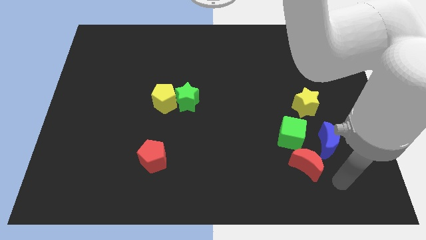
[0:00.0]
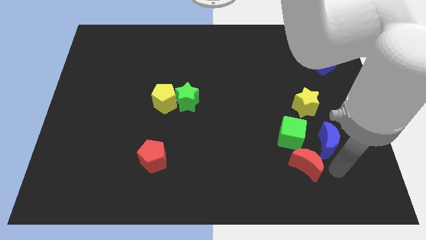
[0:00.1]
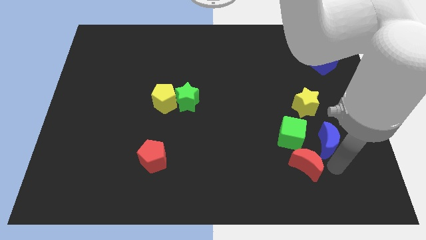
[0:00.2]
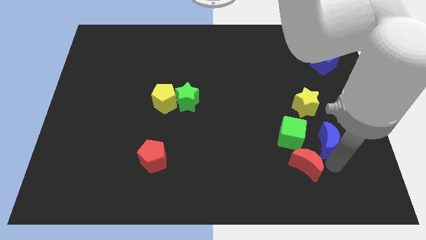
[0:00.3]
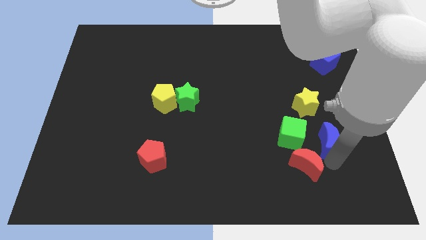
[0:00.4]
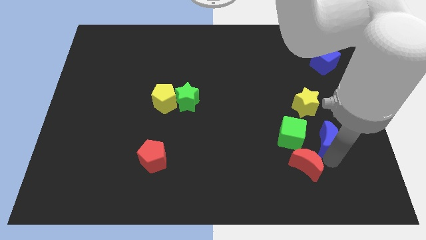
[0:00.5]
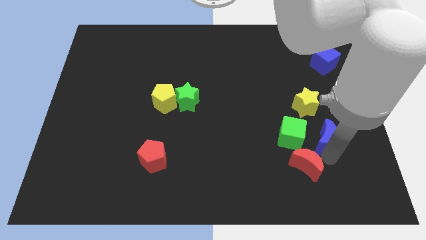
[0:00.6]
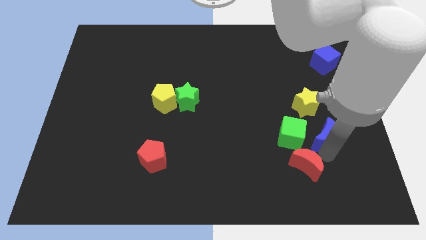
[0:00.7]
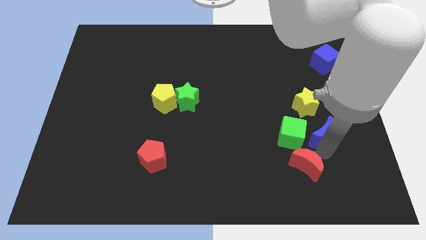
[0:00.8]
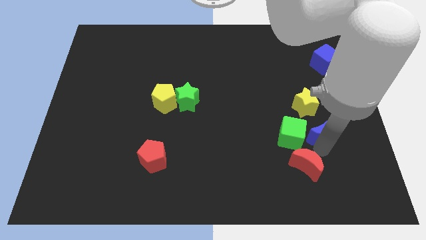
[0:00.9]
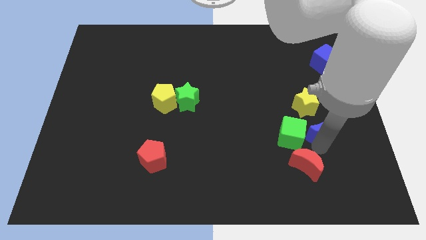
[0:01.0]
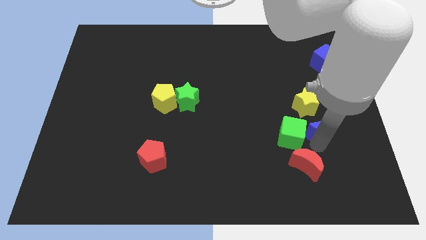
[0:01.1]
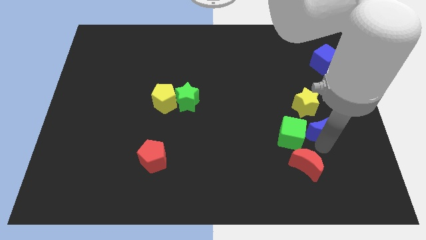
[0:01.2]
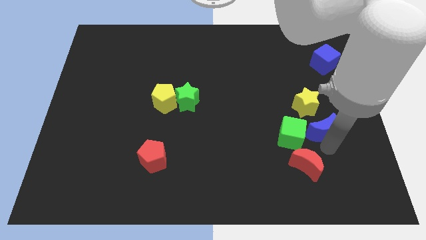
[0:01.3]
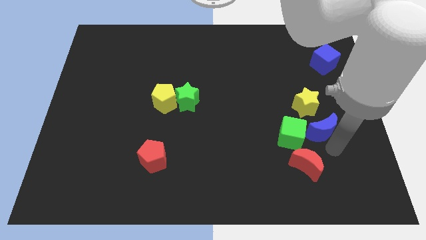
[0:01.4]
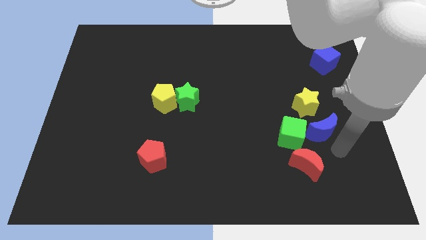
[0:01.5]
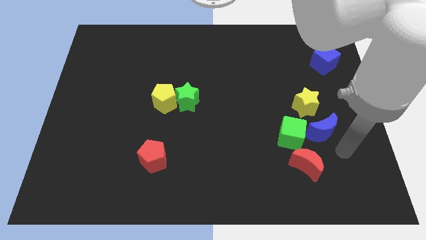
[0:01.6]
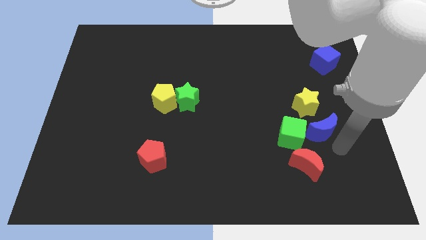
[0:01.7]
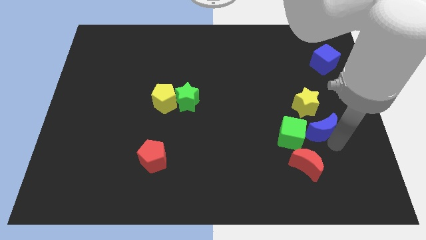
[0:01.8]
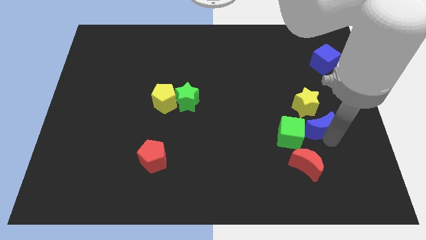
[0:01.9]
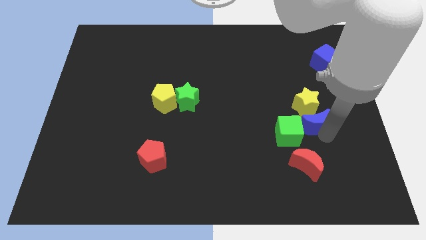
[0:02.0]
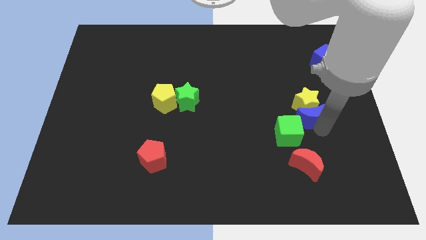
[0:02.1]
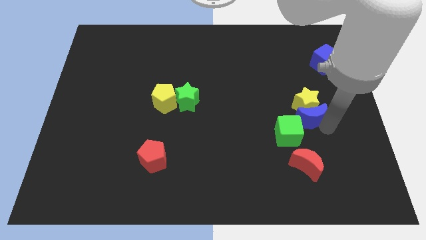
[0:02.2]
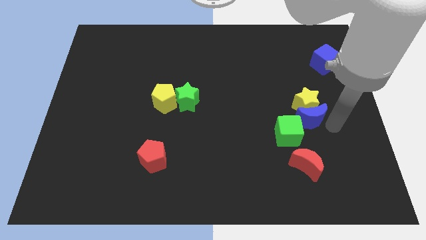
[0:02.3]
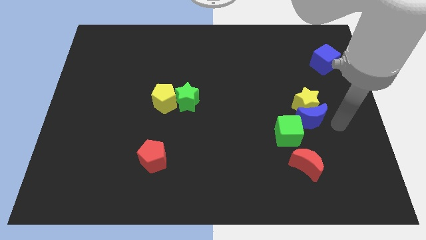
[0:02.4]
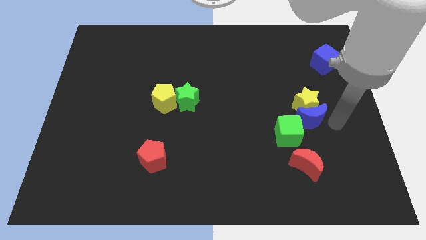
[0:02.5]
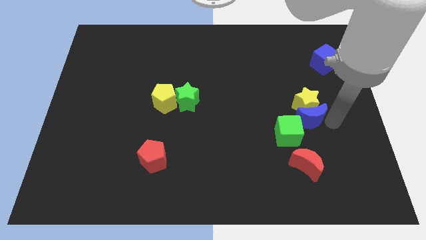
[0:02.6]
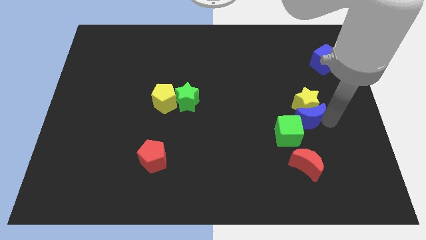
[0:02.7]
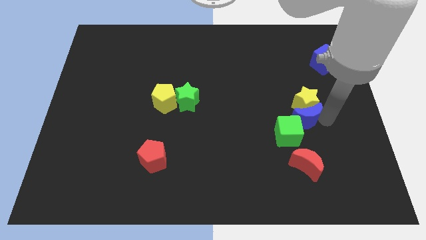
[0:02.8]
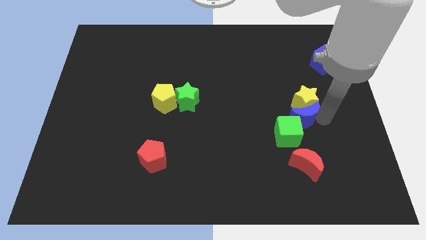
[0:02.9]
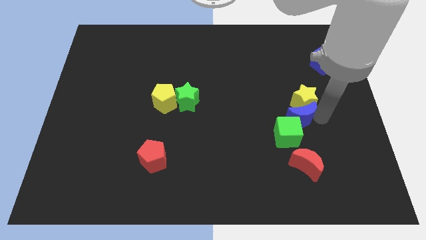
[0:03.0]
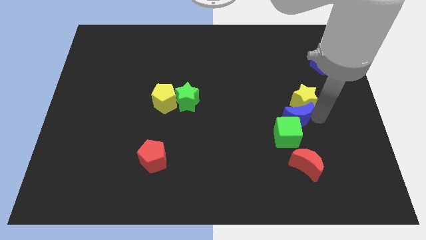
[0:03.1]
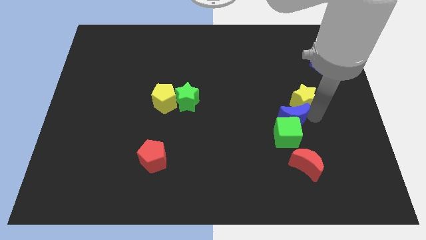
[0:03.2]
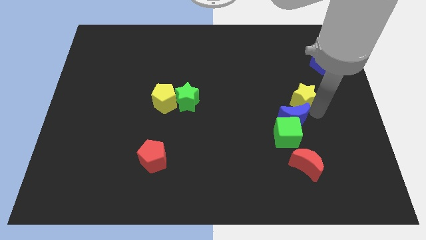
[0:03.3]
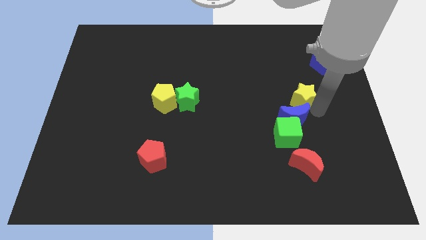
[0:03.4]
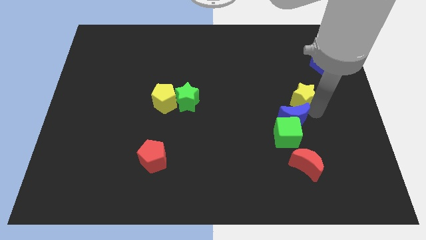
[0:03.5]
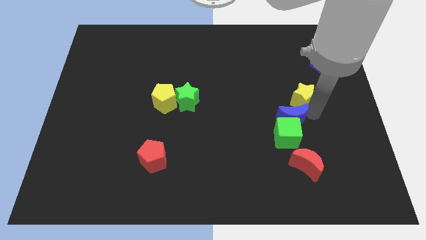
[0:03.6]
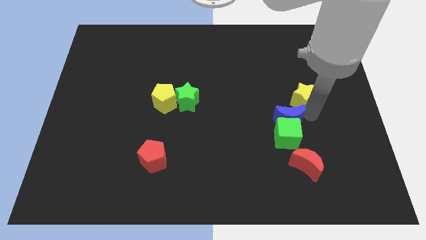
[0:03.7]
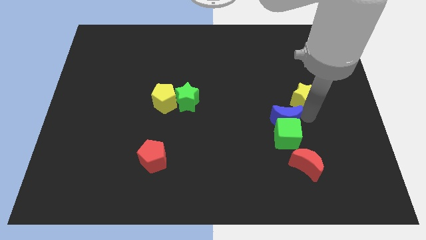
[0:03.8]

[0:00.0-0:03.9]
push the blue moon left a bit

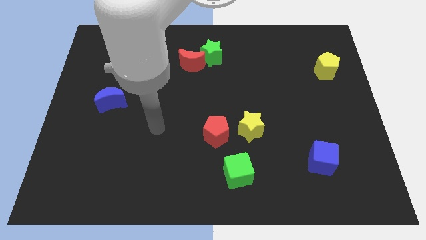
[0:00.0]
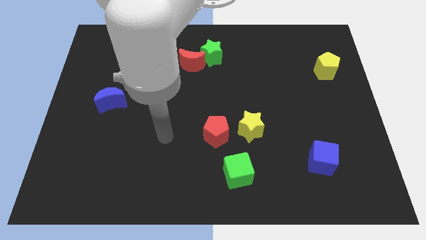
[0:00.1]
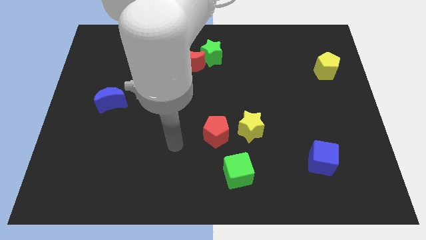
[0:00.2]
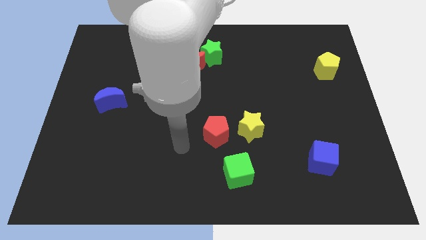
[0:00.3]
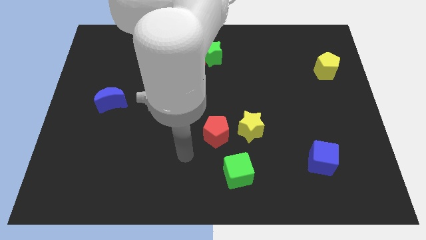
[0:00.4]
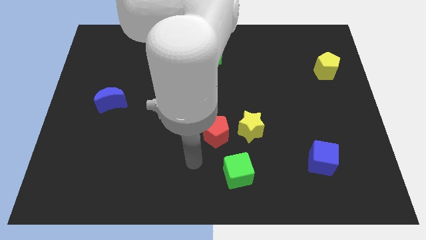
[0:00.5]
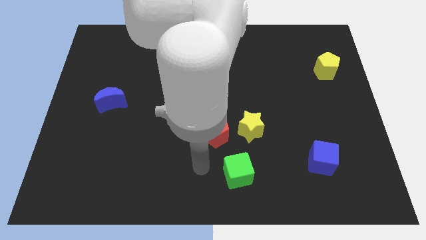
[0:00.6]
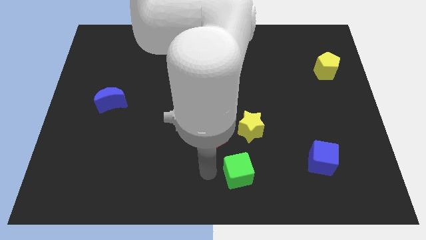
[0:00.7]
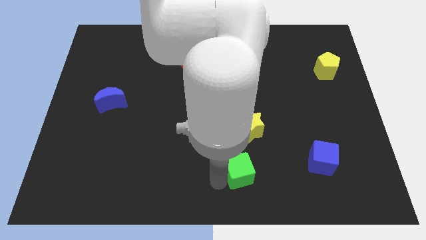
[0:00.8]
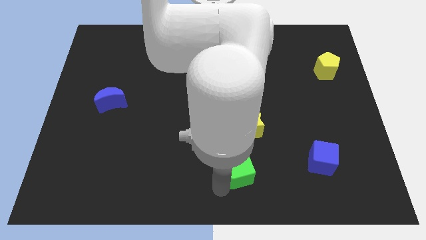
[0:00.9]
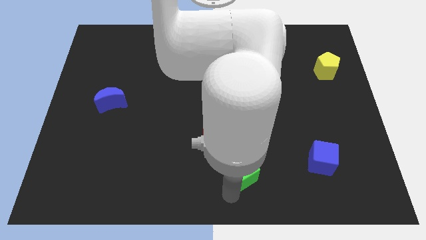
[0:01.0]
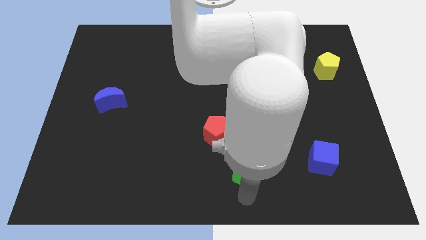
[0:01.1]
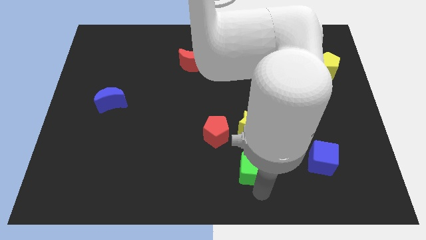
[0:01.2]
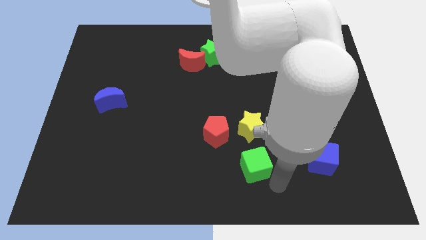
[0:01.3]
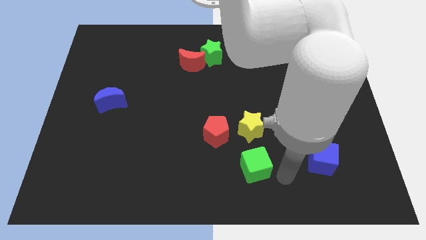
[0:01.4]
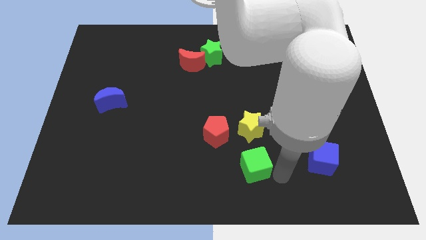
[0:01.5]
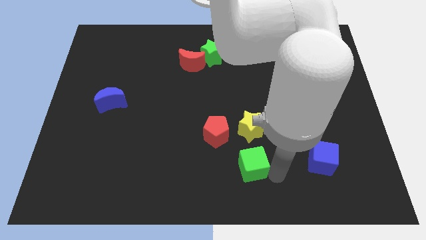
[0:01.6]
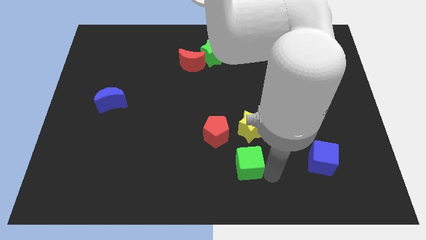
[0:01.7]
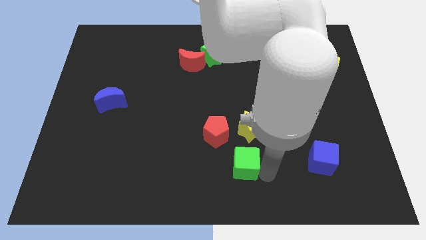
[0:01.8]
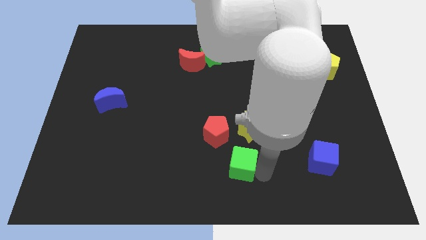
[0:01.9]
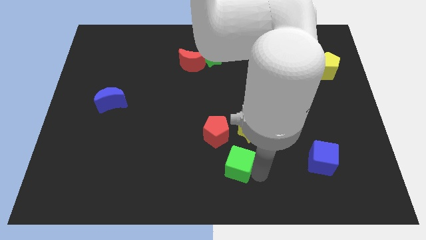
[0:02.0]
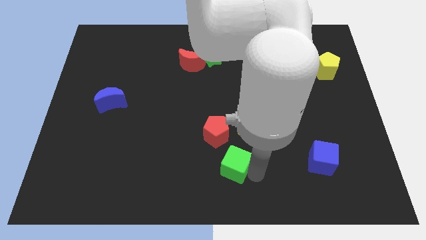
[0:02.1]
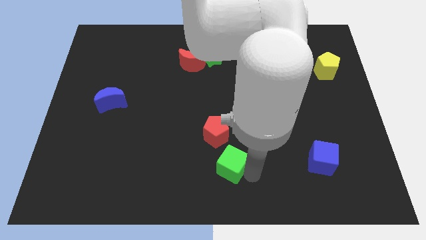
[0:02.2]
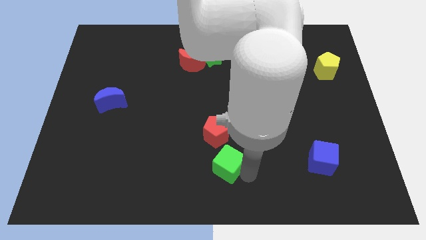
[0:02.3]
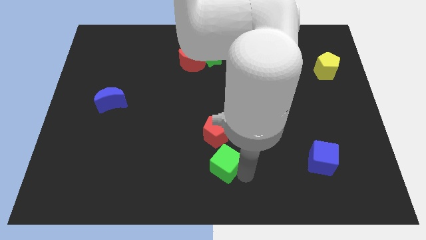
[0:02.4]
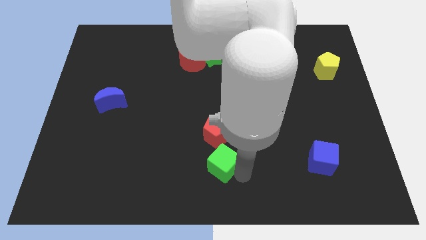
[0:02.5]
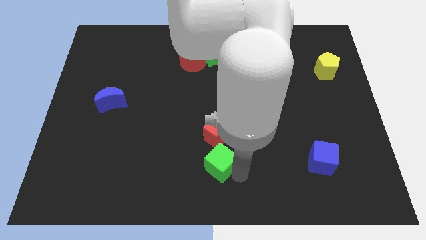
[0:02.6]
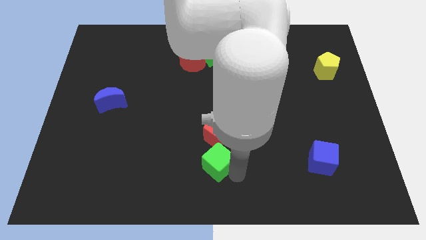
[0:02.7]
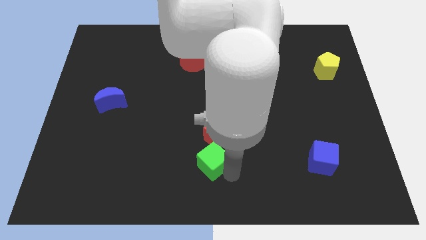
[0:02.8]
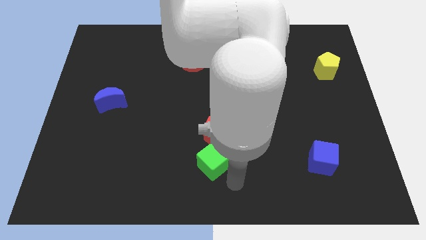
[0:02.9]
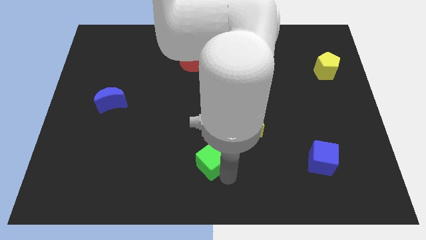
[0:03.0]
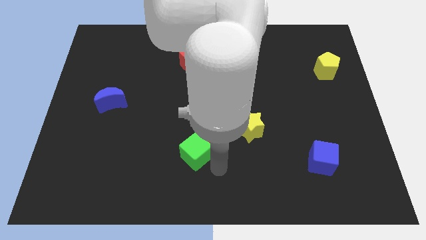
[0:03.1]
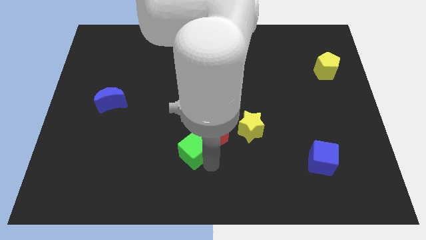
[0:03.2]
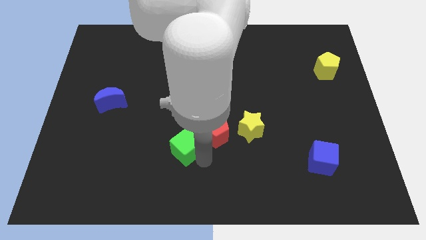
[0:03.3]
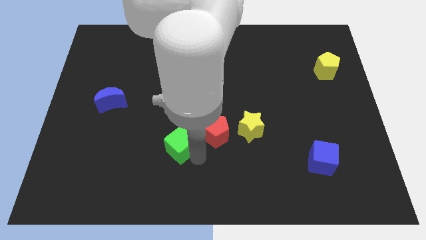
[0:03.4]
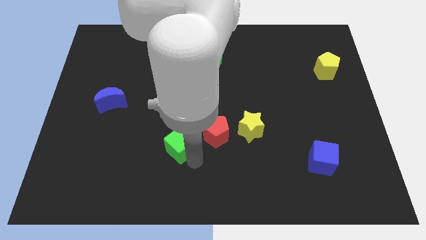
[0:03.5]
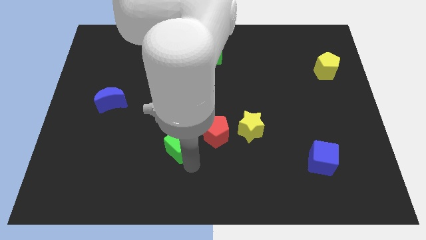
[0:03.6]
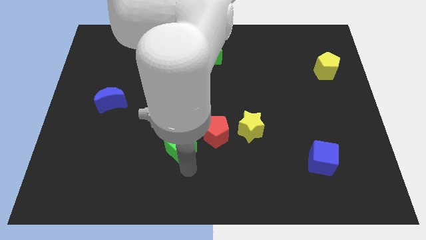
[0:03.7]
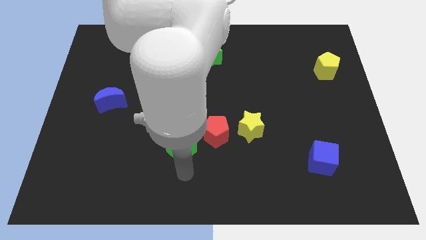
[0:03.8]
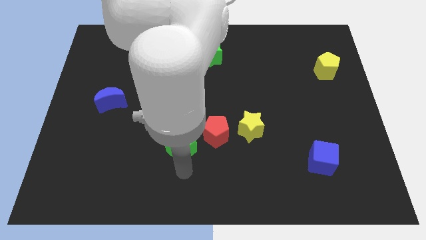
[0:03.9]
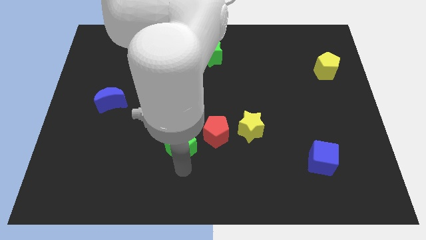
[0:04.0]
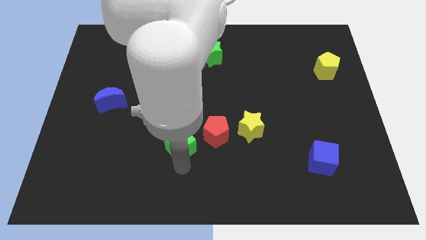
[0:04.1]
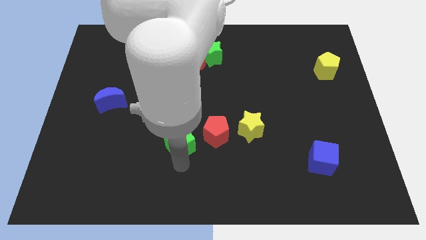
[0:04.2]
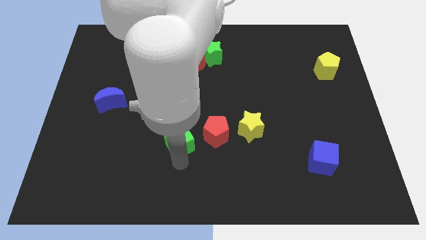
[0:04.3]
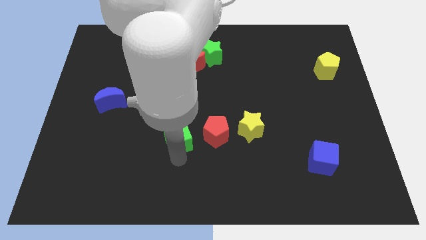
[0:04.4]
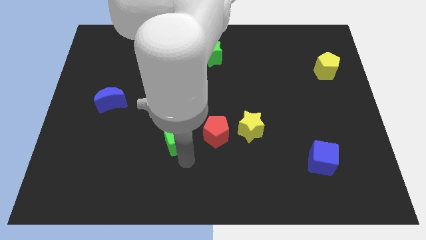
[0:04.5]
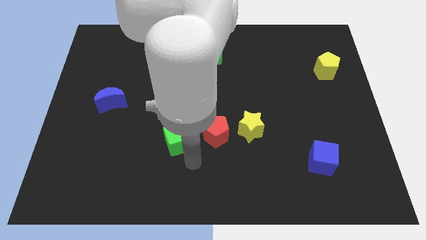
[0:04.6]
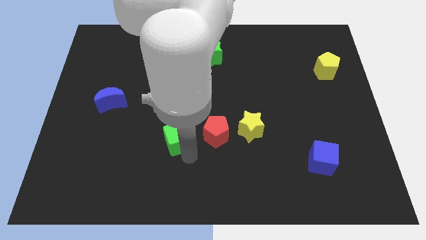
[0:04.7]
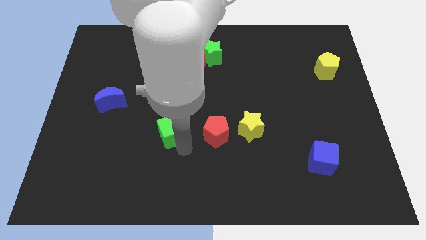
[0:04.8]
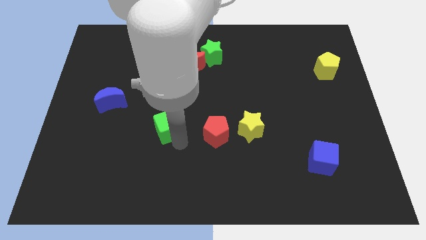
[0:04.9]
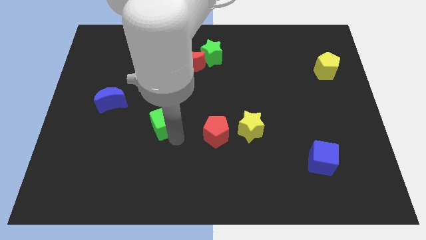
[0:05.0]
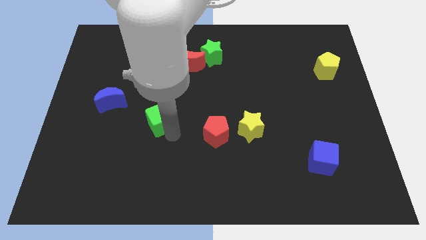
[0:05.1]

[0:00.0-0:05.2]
push the green cube diagonally up and to the left
